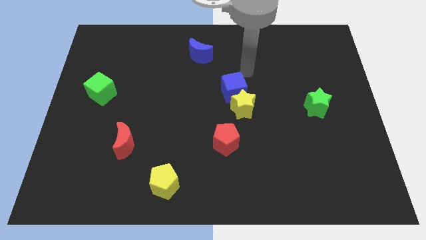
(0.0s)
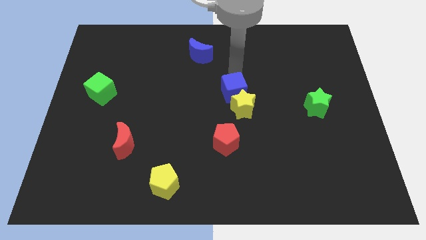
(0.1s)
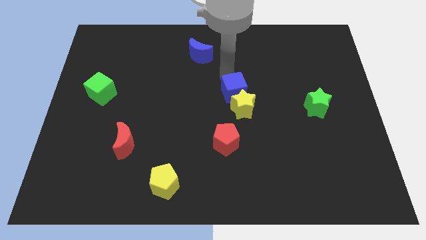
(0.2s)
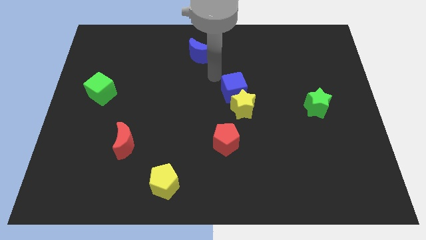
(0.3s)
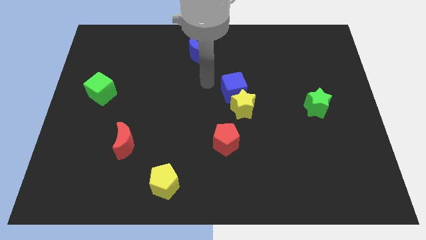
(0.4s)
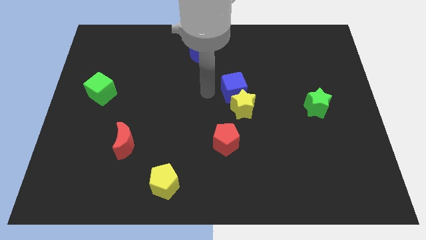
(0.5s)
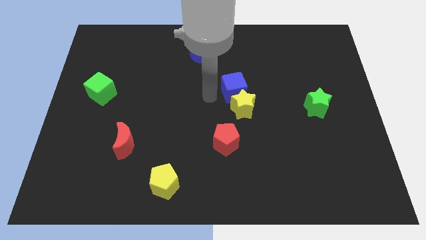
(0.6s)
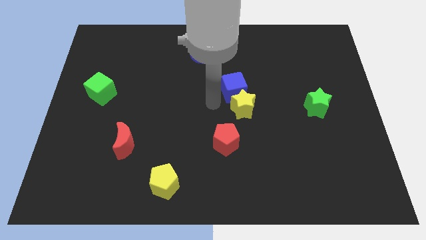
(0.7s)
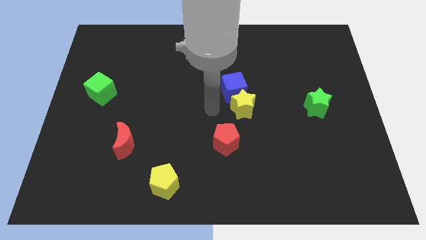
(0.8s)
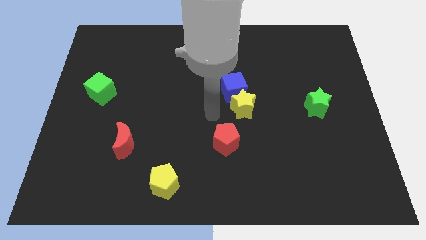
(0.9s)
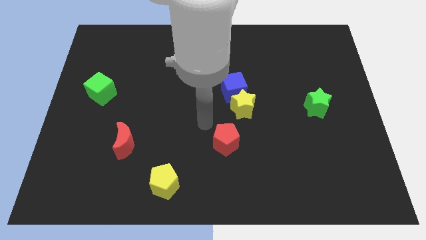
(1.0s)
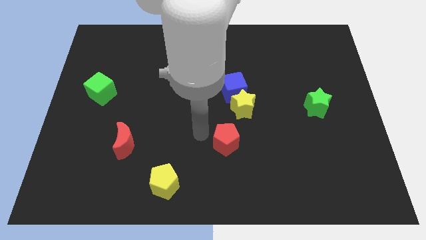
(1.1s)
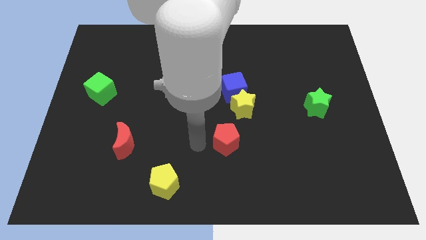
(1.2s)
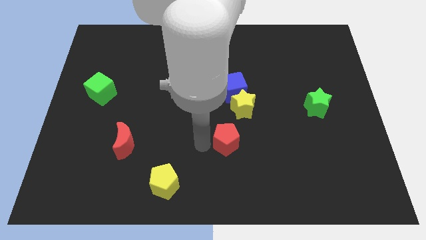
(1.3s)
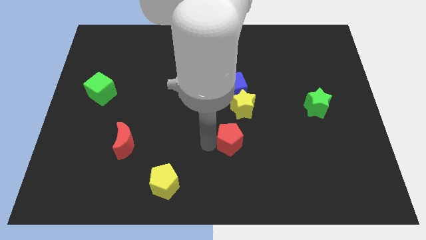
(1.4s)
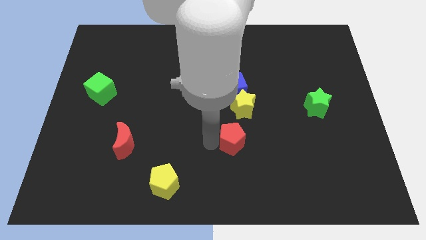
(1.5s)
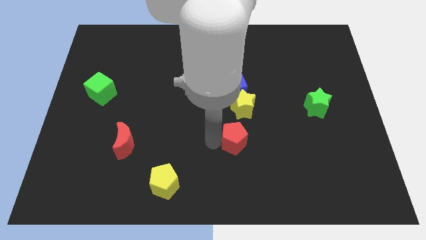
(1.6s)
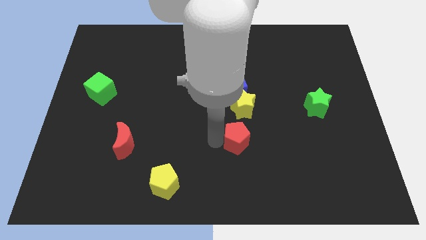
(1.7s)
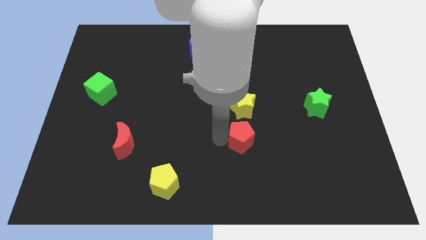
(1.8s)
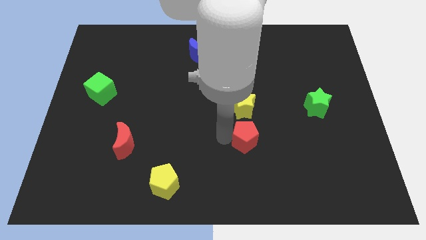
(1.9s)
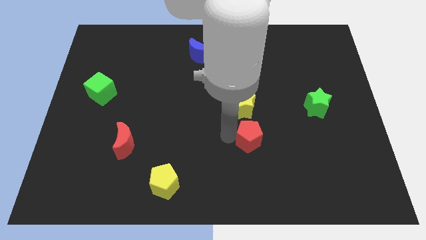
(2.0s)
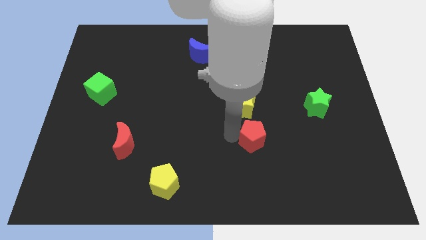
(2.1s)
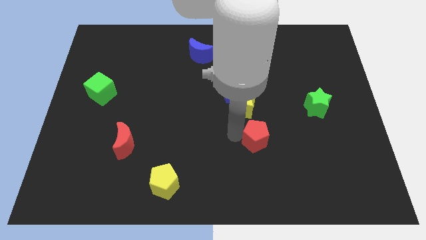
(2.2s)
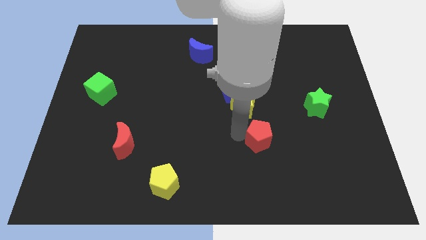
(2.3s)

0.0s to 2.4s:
move the red pentagon right a little

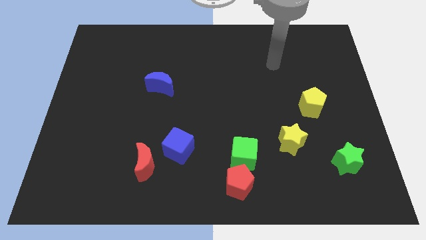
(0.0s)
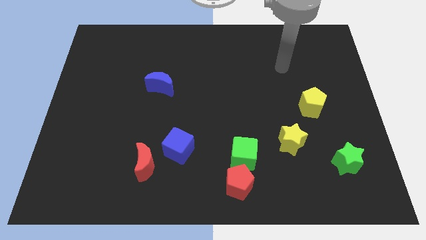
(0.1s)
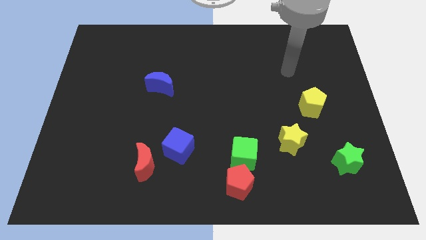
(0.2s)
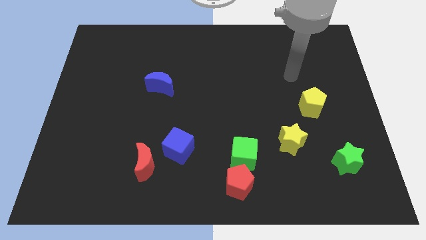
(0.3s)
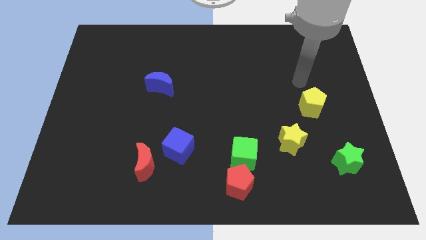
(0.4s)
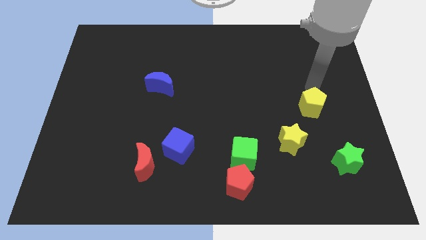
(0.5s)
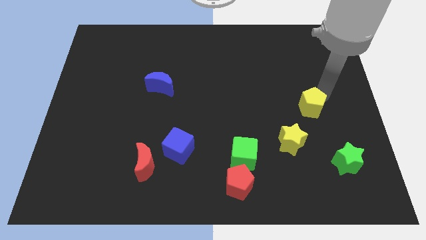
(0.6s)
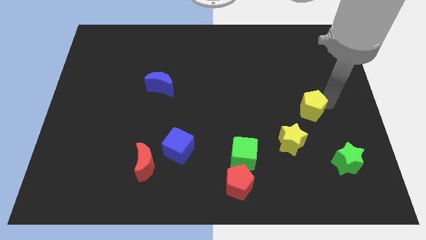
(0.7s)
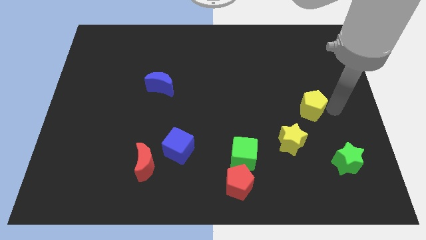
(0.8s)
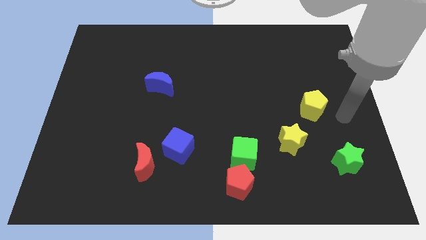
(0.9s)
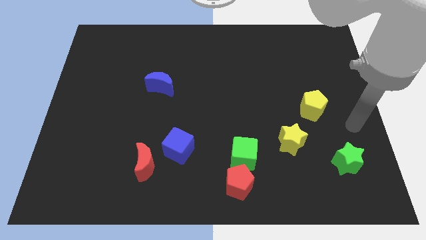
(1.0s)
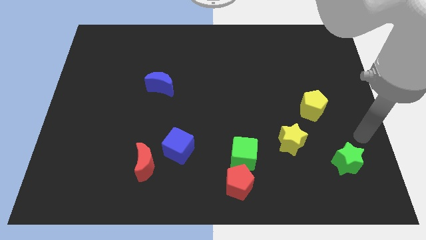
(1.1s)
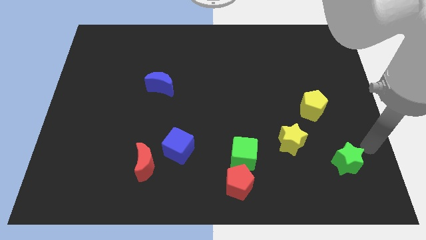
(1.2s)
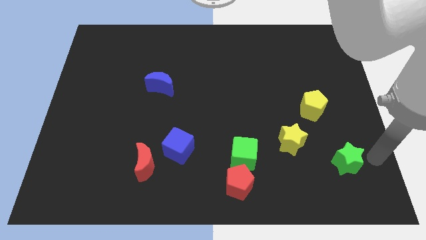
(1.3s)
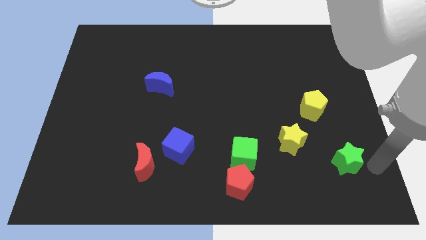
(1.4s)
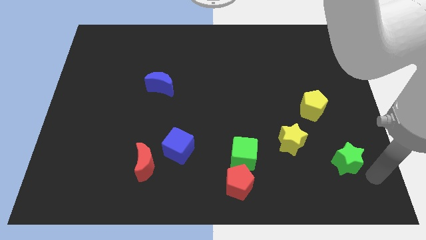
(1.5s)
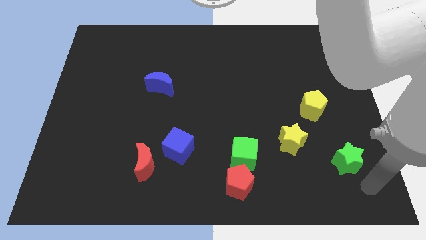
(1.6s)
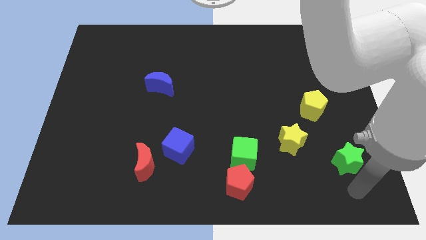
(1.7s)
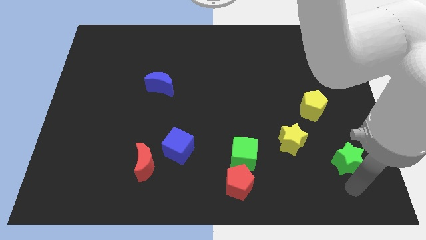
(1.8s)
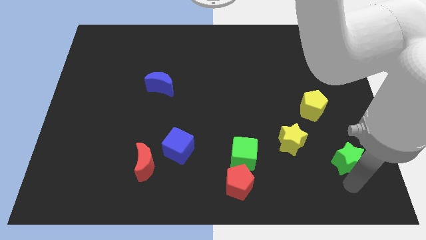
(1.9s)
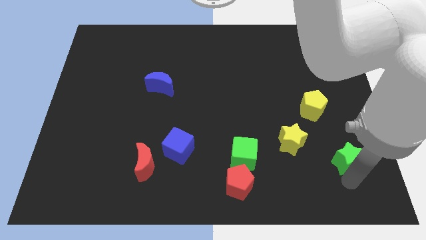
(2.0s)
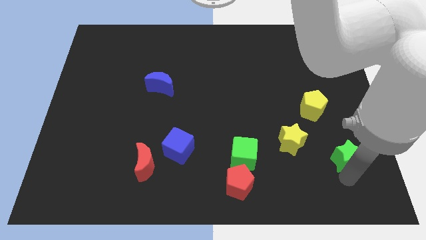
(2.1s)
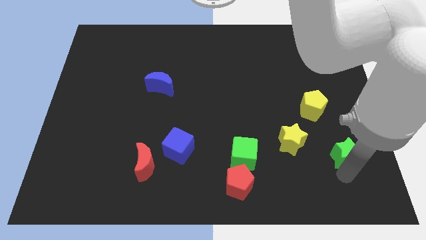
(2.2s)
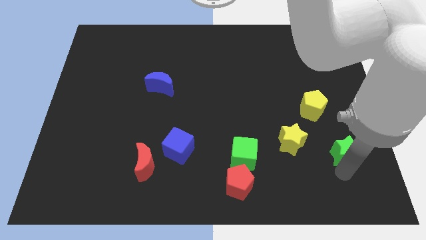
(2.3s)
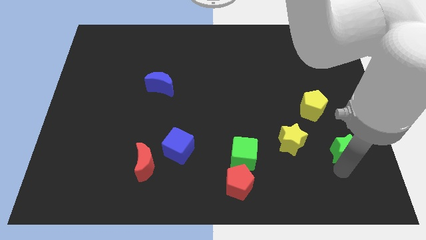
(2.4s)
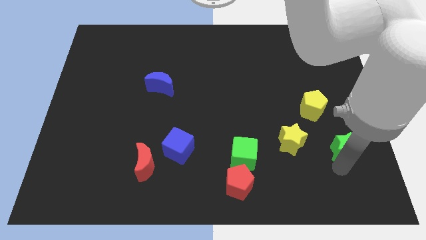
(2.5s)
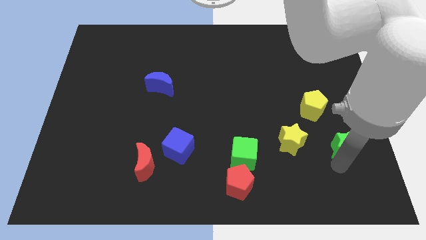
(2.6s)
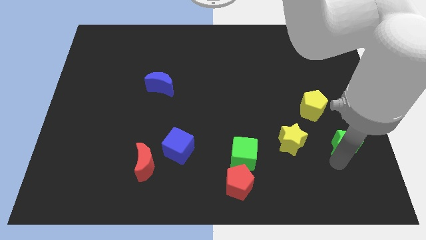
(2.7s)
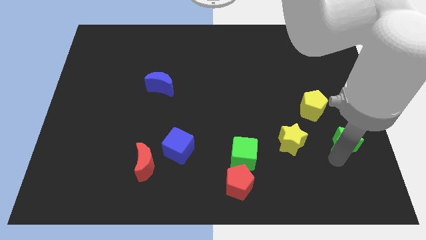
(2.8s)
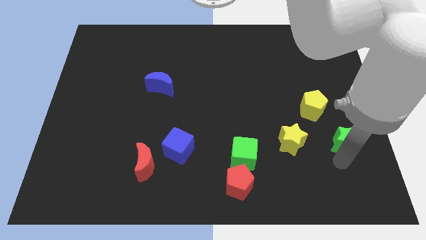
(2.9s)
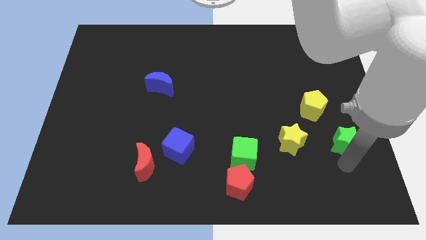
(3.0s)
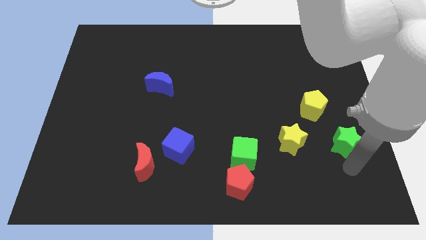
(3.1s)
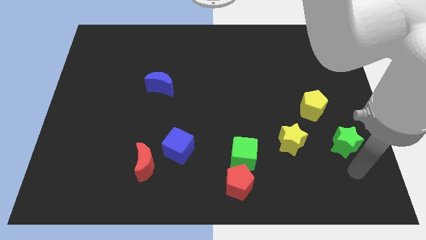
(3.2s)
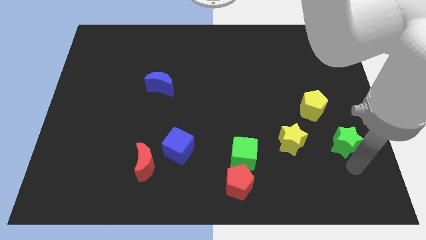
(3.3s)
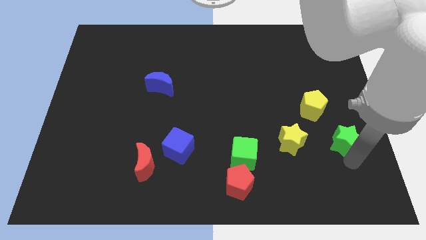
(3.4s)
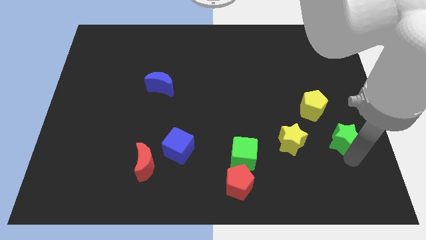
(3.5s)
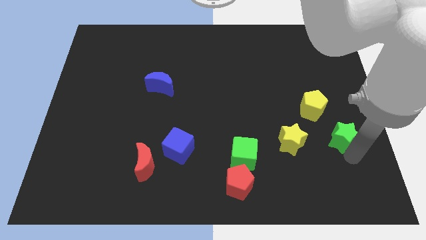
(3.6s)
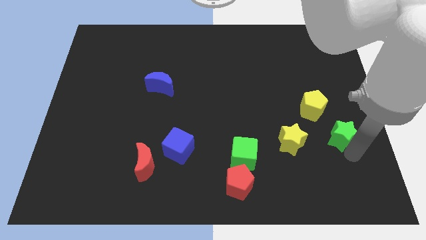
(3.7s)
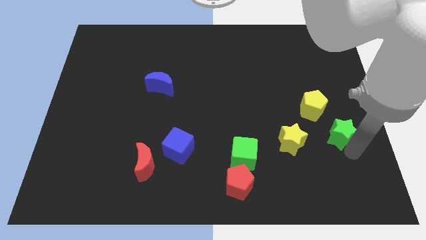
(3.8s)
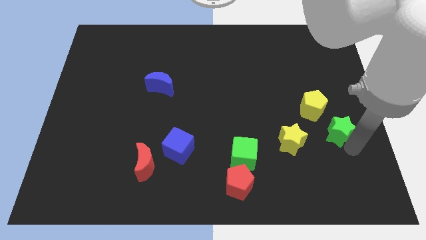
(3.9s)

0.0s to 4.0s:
slide the green star upwards a bit

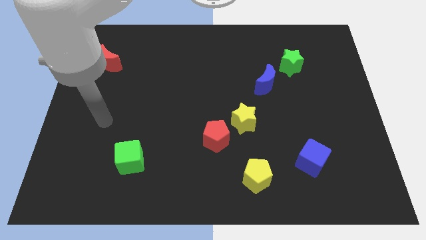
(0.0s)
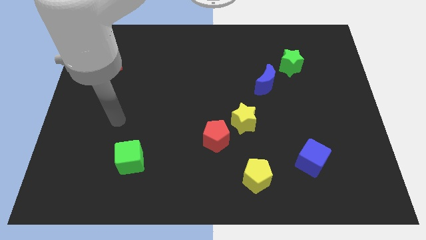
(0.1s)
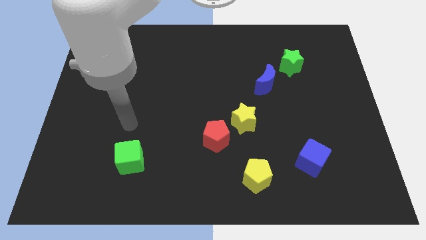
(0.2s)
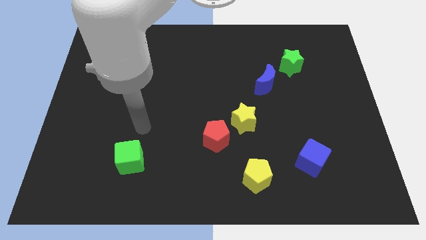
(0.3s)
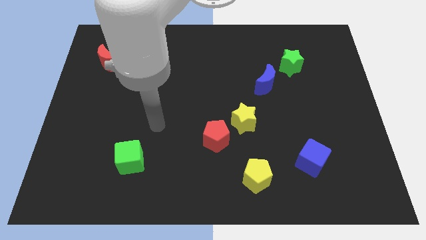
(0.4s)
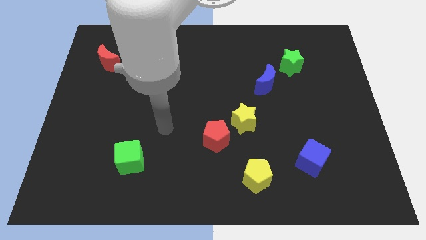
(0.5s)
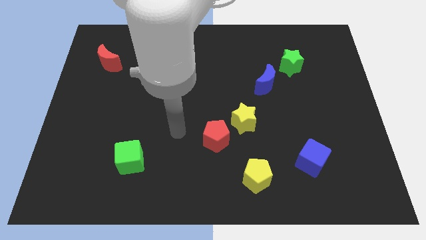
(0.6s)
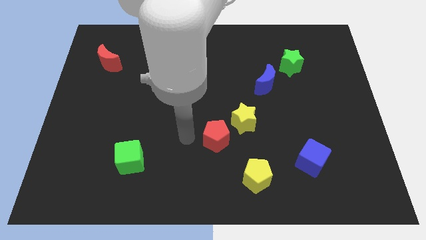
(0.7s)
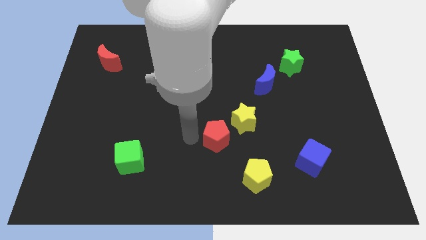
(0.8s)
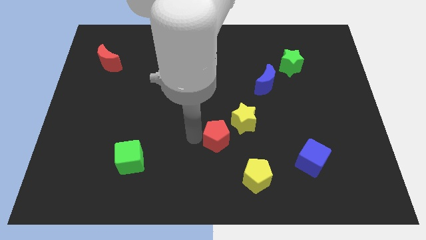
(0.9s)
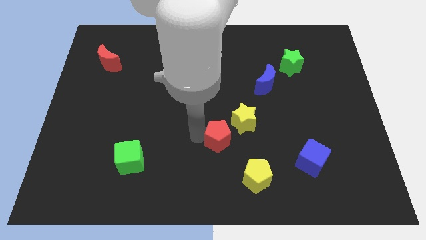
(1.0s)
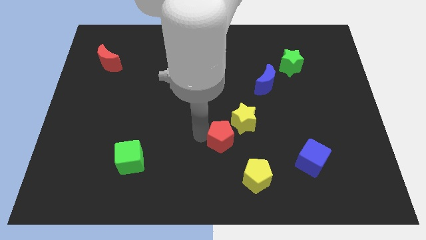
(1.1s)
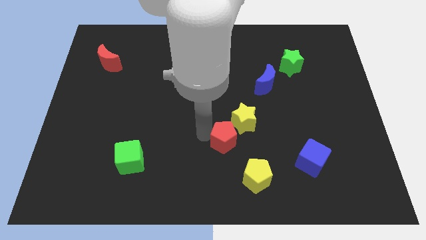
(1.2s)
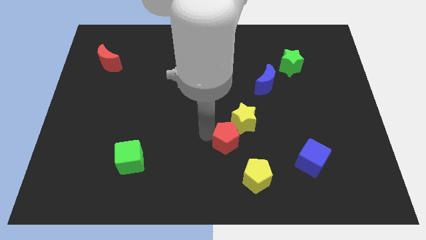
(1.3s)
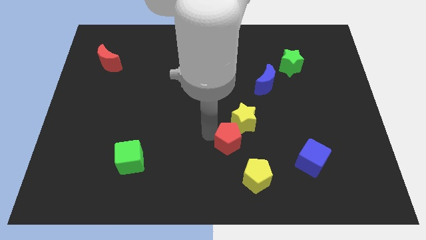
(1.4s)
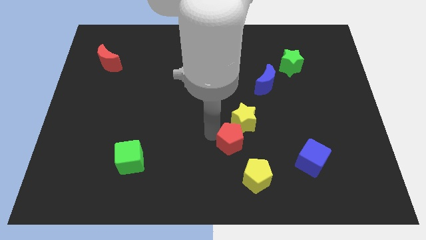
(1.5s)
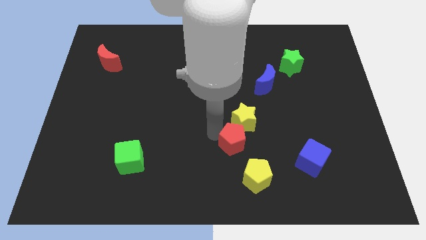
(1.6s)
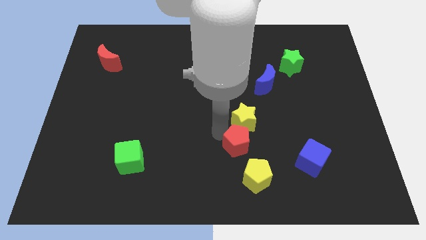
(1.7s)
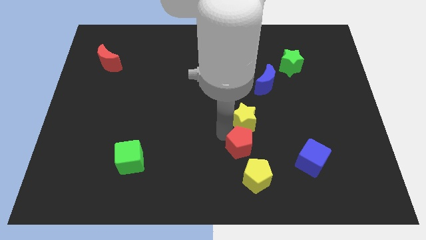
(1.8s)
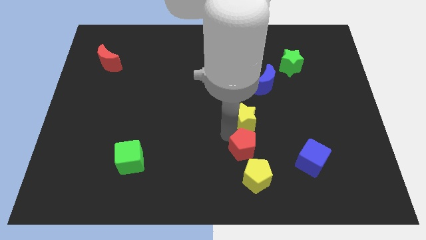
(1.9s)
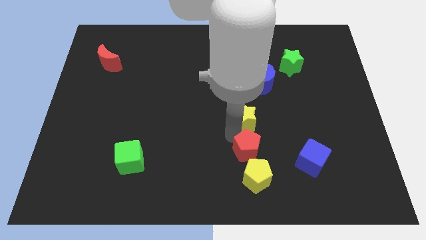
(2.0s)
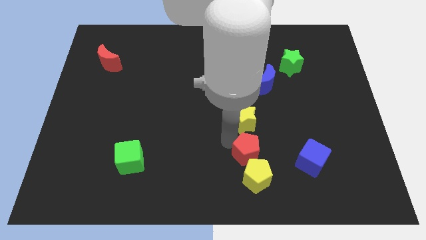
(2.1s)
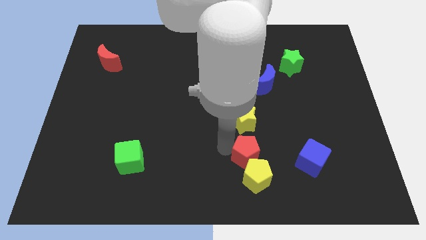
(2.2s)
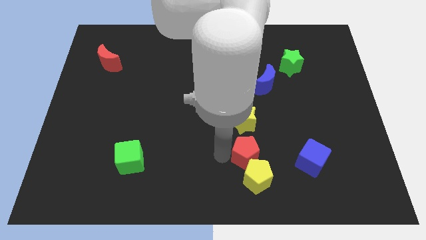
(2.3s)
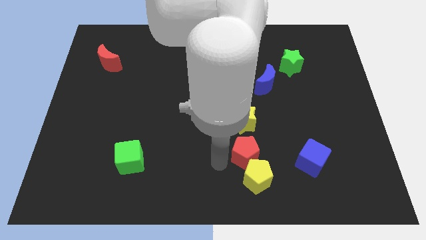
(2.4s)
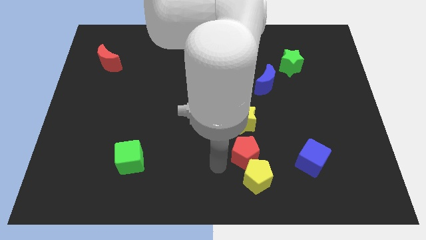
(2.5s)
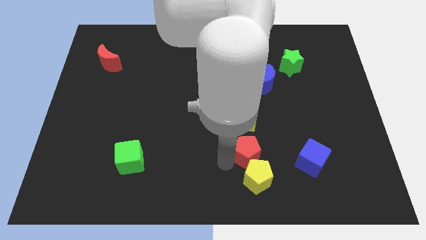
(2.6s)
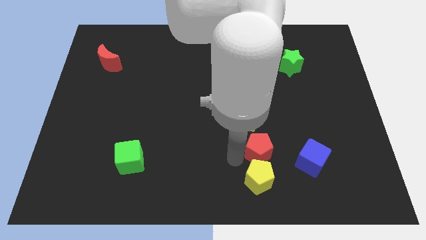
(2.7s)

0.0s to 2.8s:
push the red pentagon right a little bit
